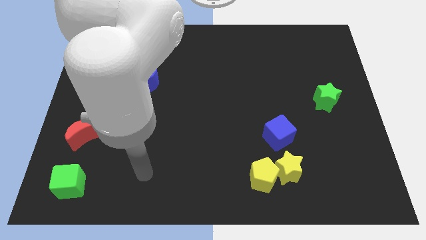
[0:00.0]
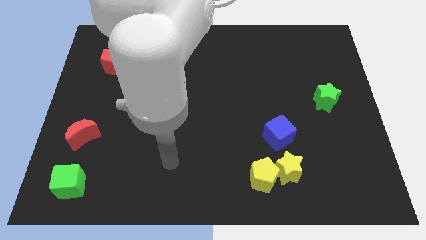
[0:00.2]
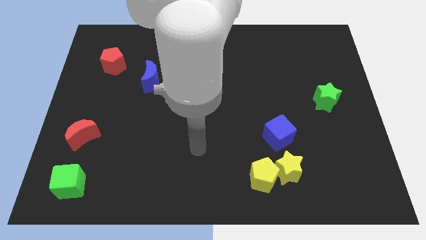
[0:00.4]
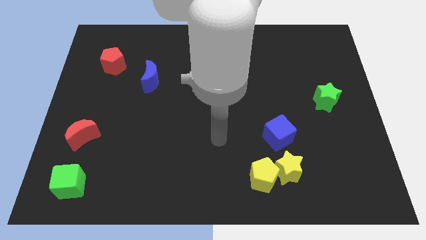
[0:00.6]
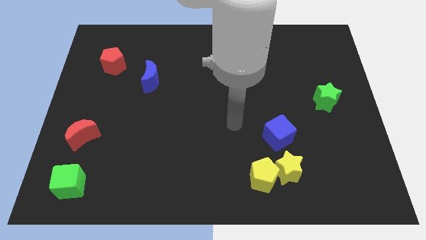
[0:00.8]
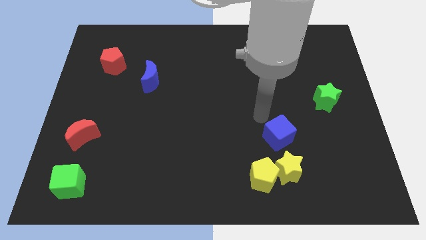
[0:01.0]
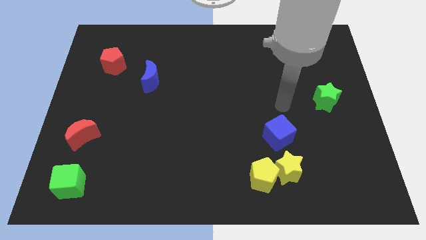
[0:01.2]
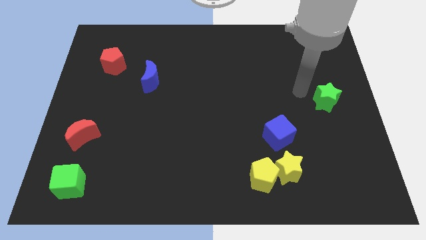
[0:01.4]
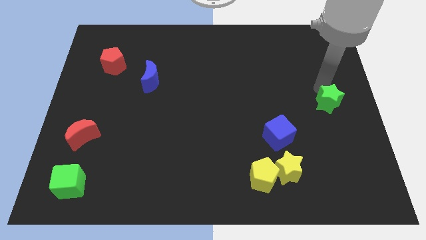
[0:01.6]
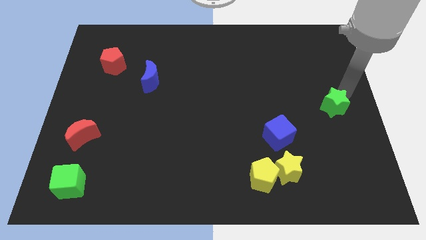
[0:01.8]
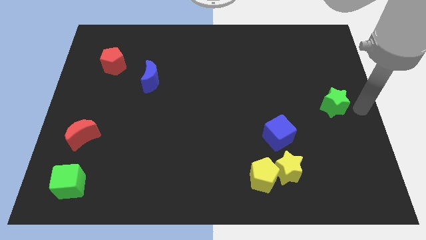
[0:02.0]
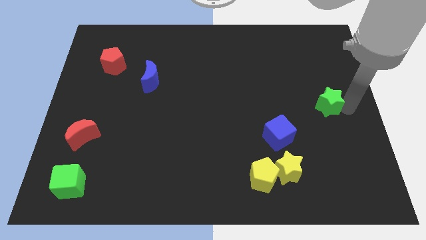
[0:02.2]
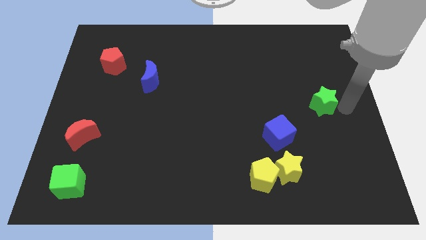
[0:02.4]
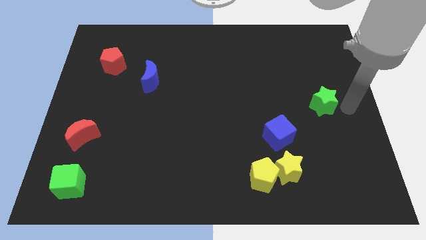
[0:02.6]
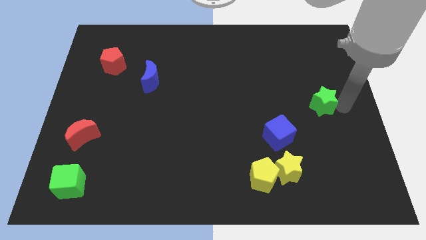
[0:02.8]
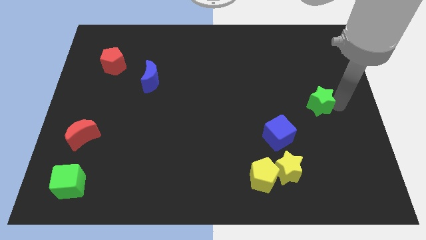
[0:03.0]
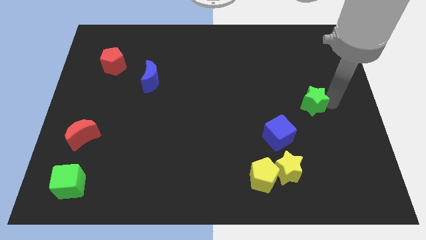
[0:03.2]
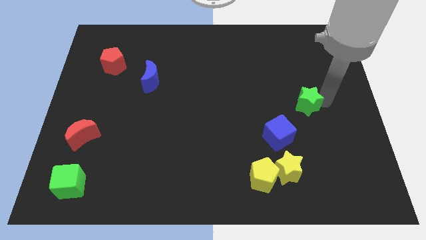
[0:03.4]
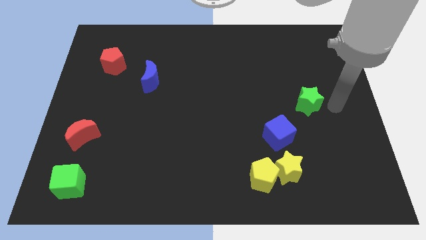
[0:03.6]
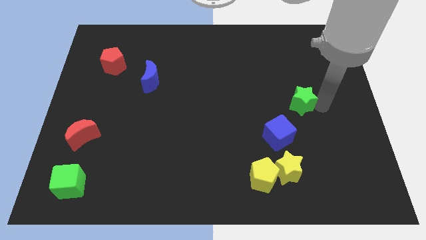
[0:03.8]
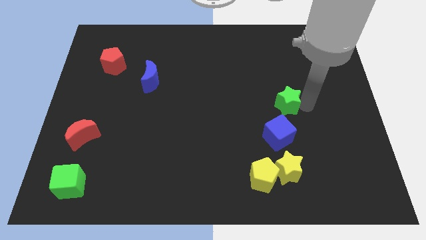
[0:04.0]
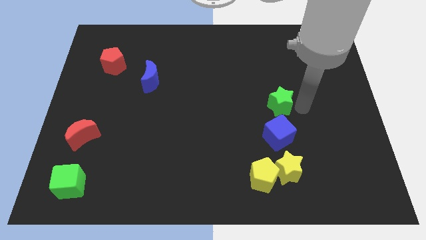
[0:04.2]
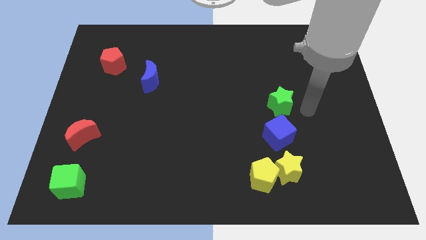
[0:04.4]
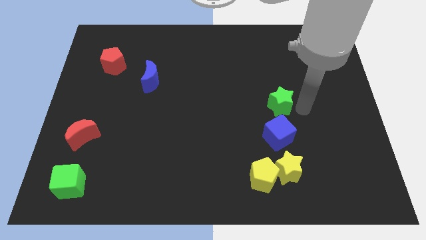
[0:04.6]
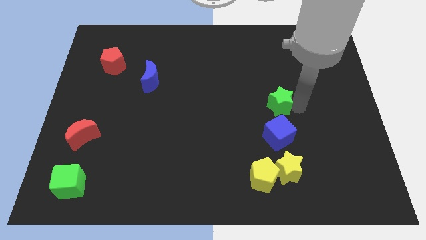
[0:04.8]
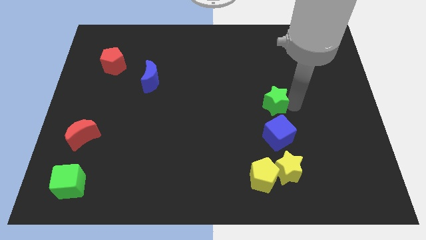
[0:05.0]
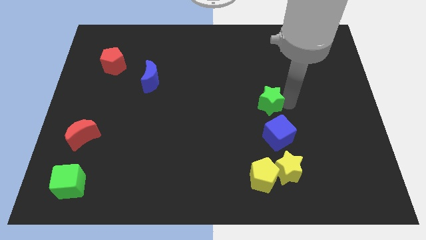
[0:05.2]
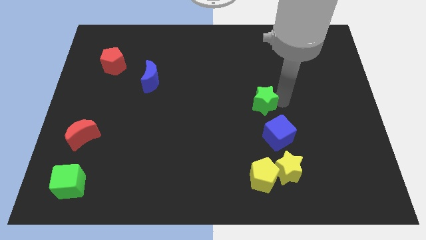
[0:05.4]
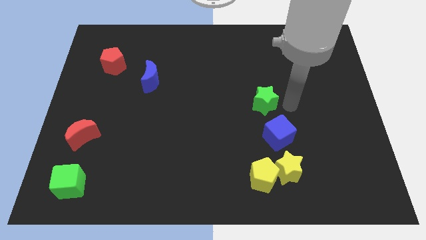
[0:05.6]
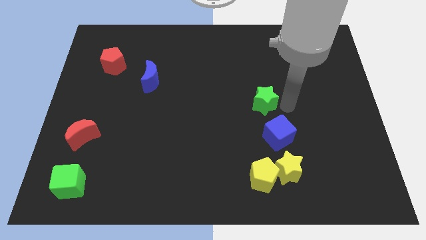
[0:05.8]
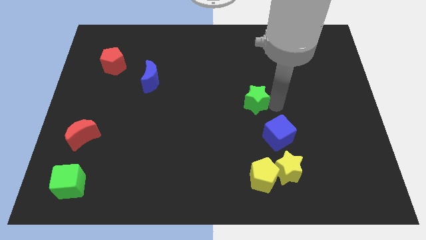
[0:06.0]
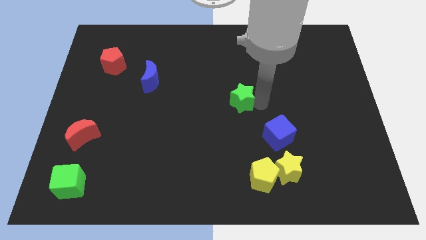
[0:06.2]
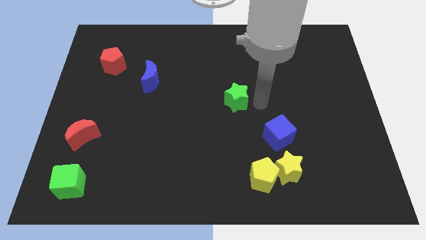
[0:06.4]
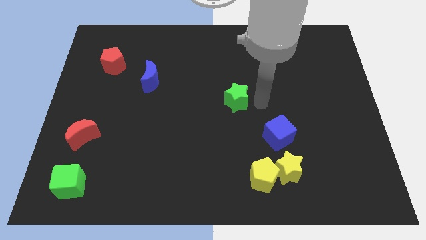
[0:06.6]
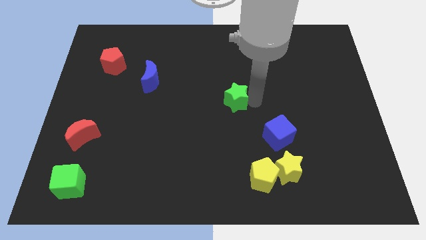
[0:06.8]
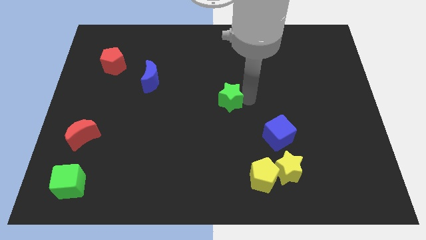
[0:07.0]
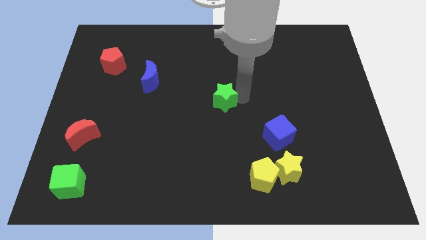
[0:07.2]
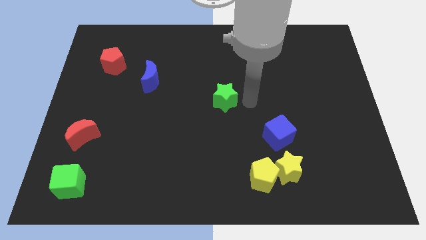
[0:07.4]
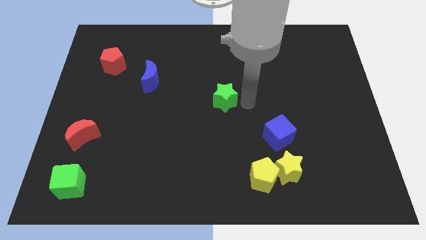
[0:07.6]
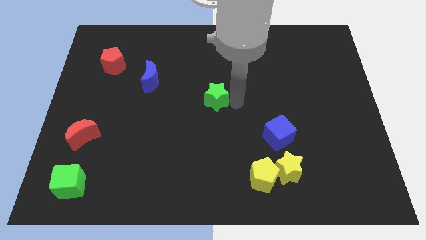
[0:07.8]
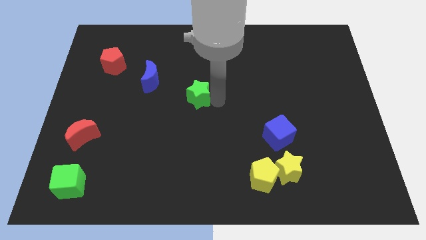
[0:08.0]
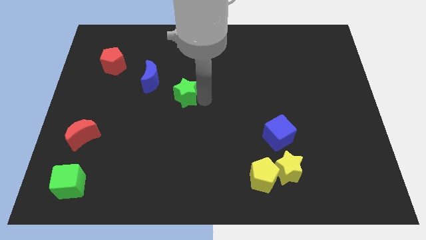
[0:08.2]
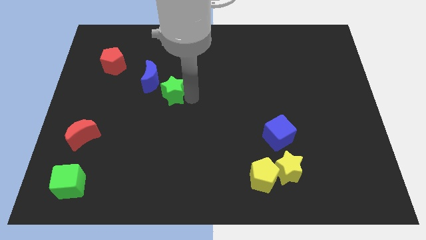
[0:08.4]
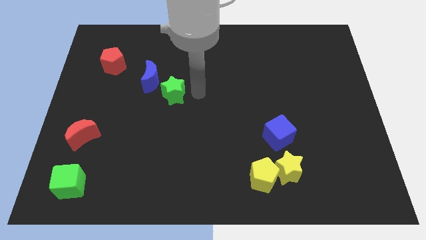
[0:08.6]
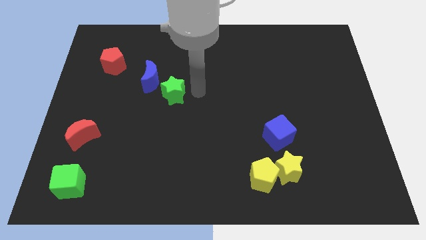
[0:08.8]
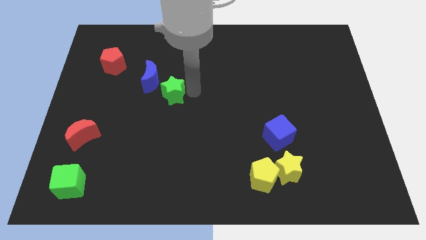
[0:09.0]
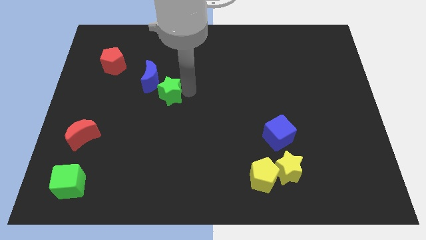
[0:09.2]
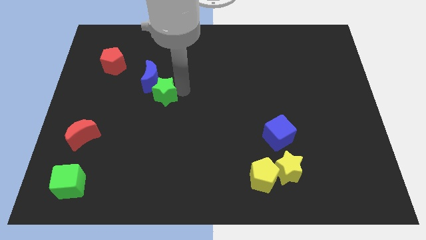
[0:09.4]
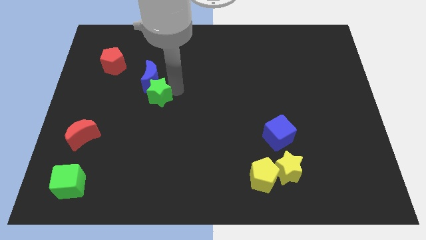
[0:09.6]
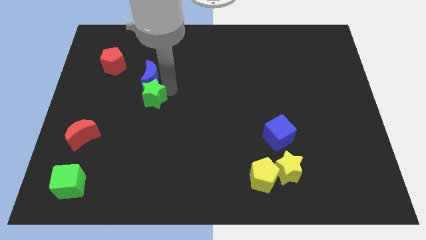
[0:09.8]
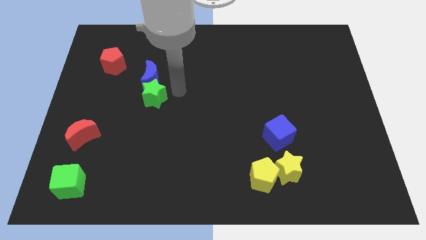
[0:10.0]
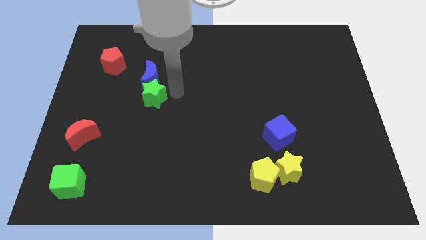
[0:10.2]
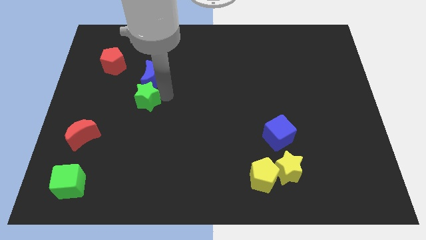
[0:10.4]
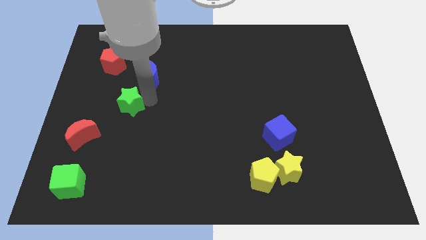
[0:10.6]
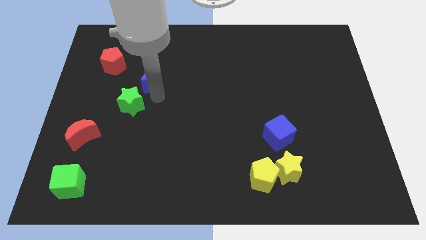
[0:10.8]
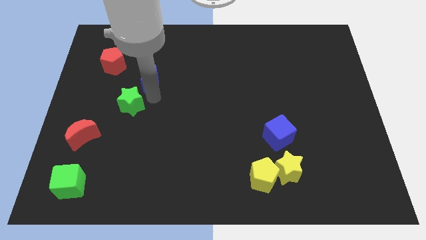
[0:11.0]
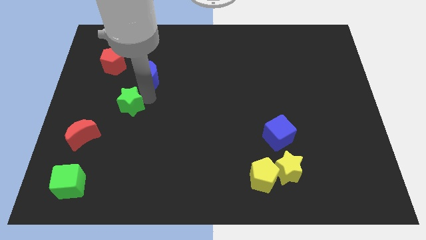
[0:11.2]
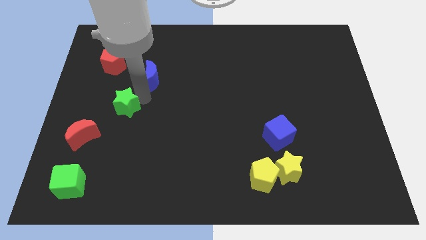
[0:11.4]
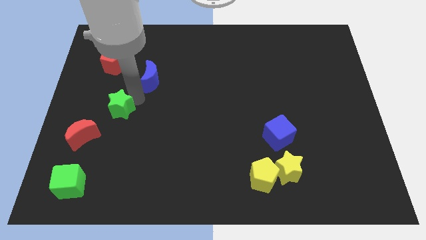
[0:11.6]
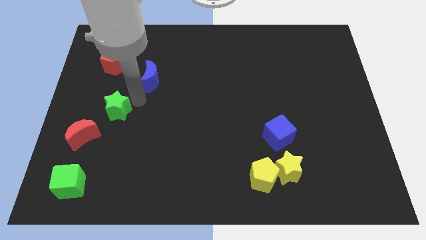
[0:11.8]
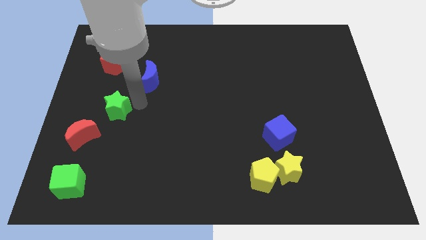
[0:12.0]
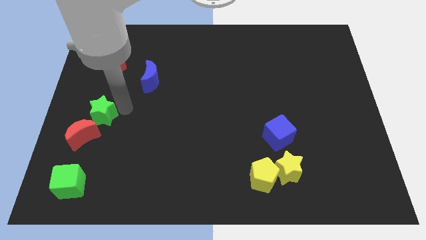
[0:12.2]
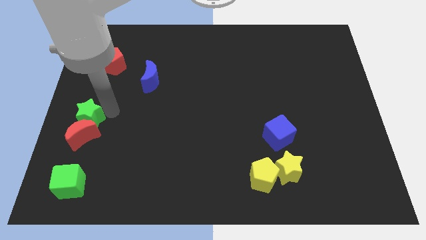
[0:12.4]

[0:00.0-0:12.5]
move the green star above the green cube
